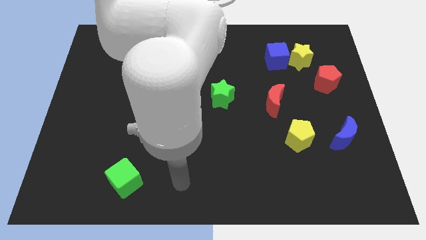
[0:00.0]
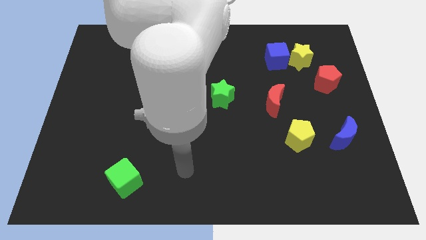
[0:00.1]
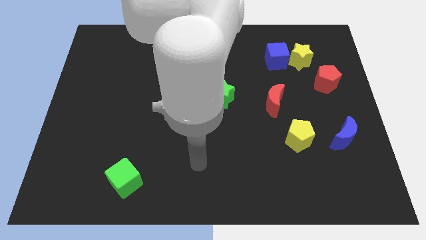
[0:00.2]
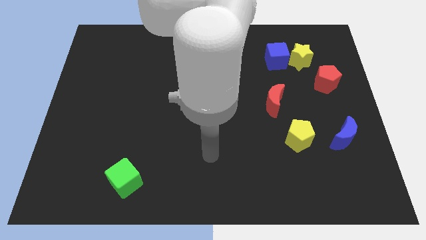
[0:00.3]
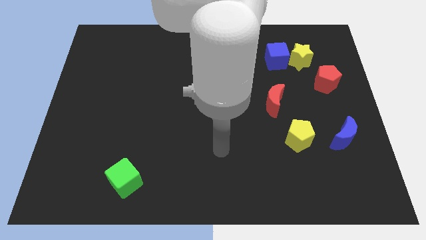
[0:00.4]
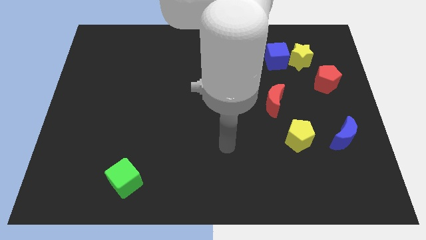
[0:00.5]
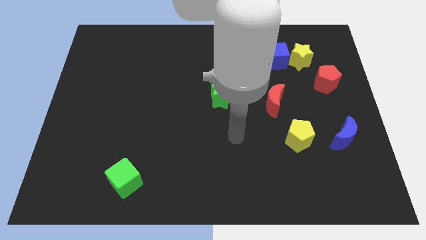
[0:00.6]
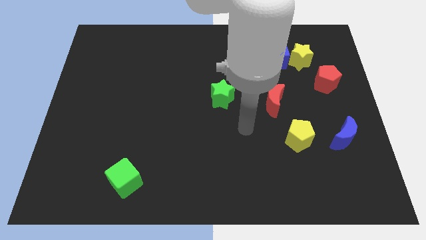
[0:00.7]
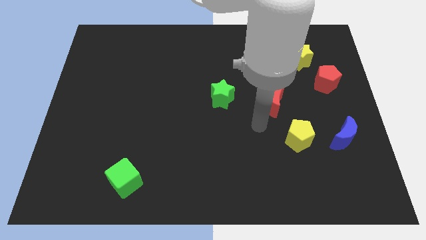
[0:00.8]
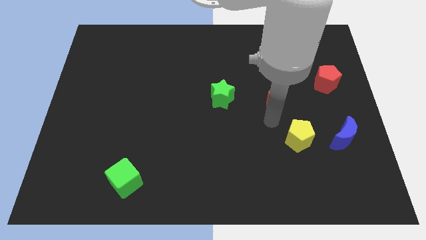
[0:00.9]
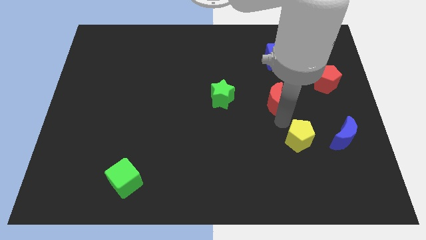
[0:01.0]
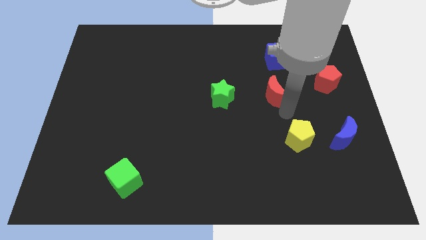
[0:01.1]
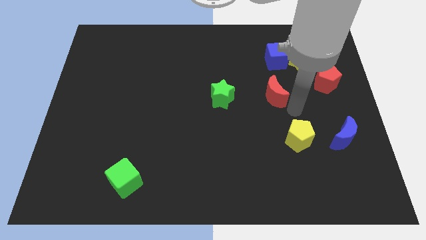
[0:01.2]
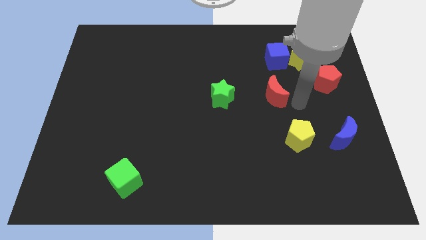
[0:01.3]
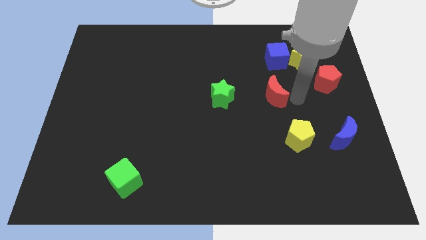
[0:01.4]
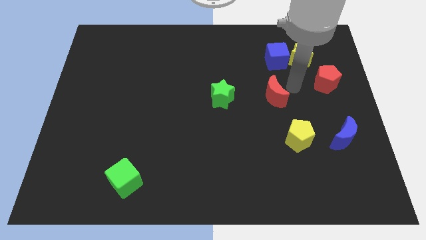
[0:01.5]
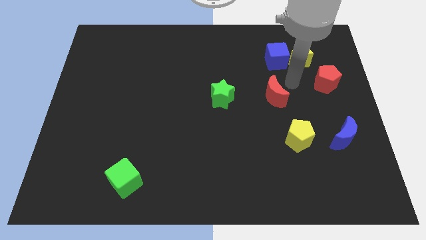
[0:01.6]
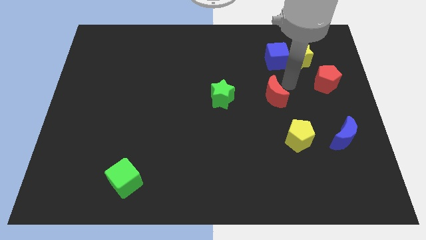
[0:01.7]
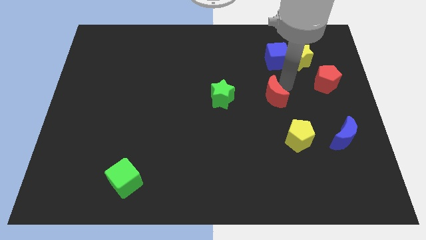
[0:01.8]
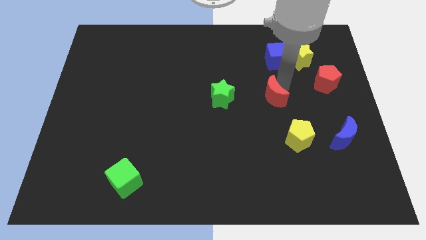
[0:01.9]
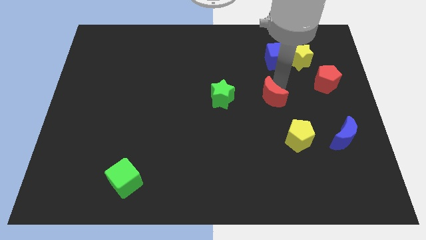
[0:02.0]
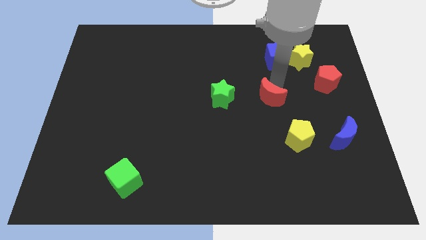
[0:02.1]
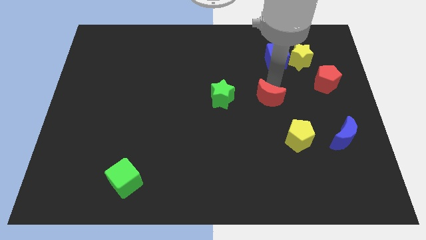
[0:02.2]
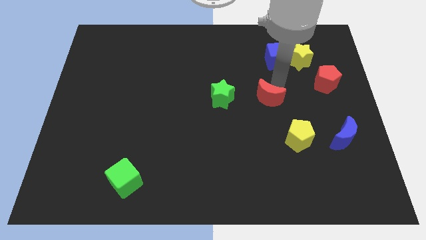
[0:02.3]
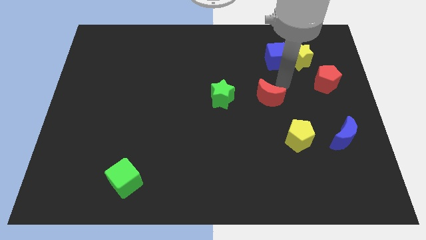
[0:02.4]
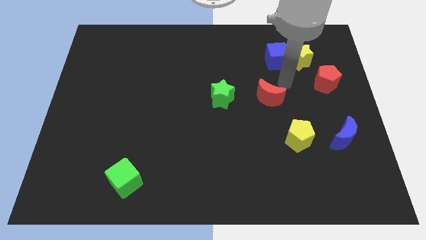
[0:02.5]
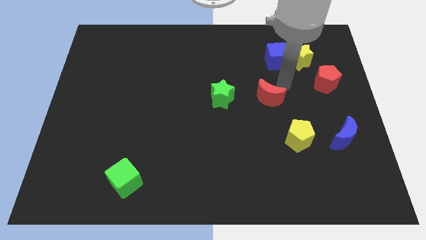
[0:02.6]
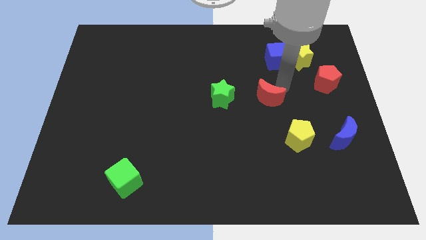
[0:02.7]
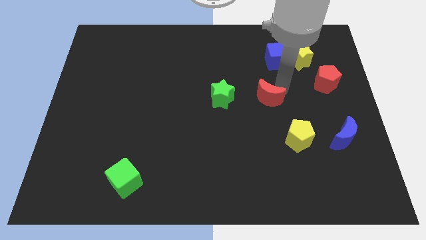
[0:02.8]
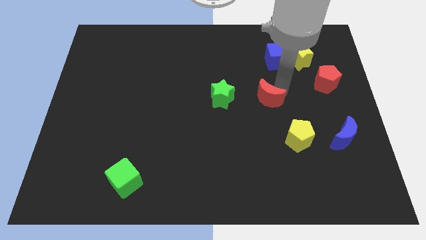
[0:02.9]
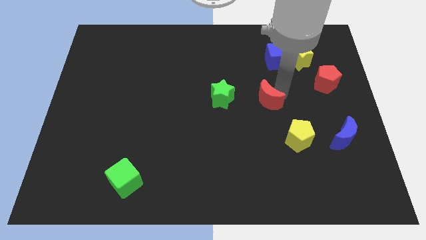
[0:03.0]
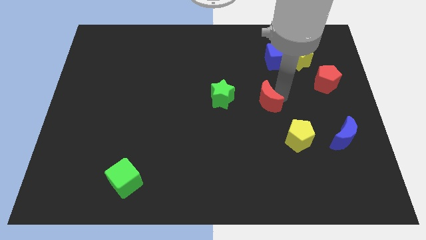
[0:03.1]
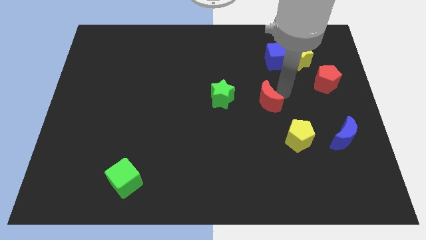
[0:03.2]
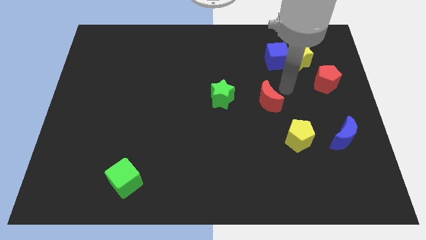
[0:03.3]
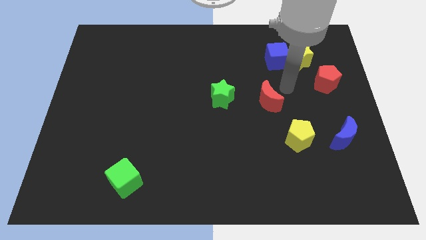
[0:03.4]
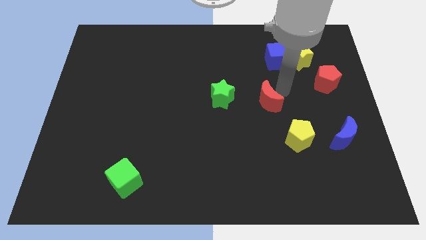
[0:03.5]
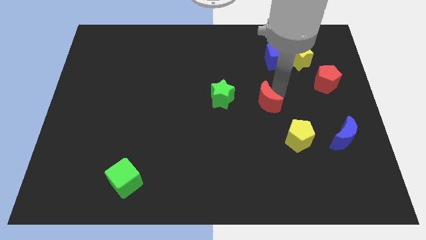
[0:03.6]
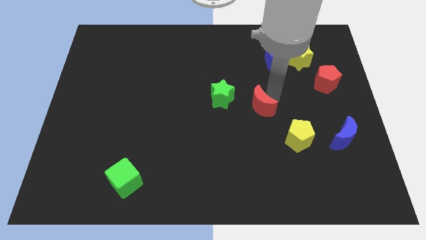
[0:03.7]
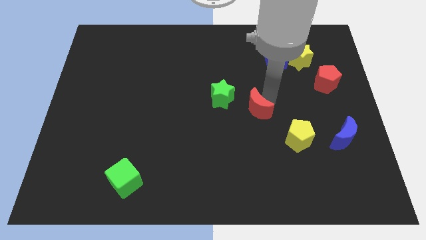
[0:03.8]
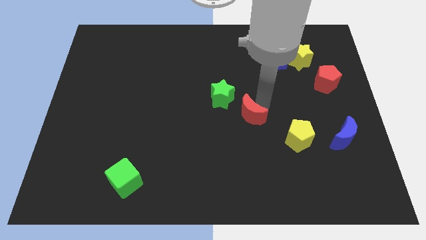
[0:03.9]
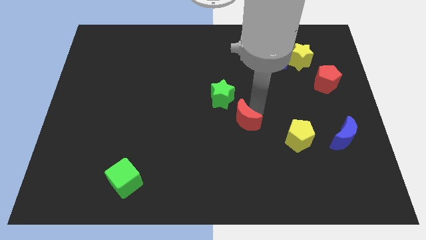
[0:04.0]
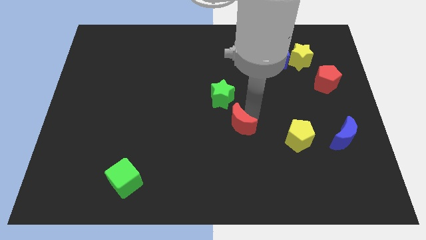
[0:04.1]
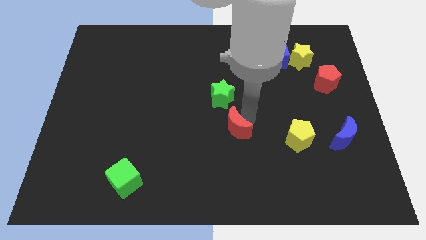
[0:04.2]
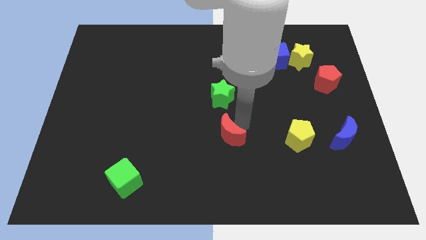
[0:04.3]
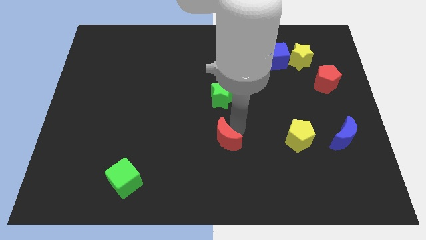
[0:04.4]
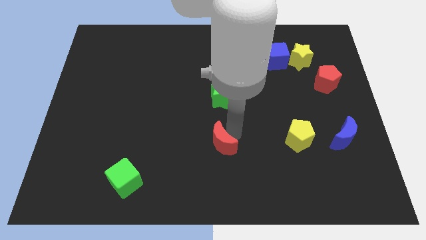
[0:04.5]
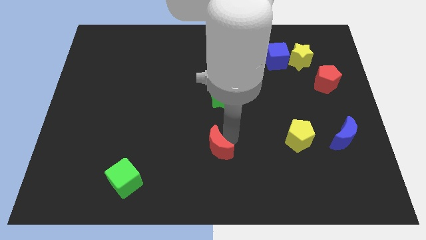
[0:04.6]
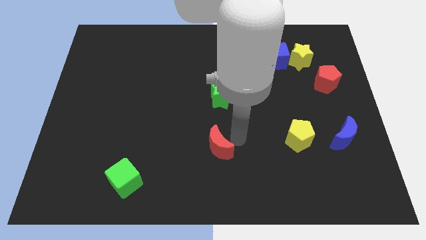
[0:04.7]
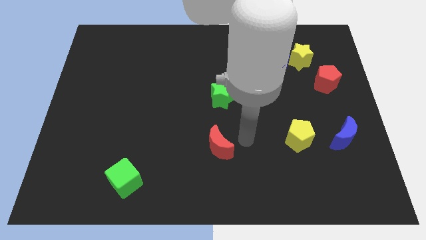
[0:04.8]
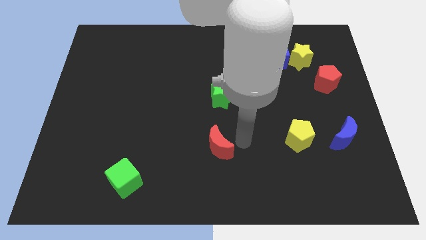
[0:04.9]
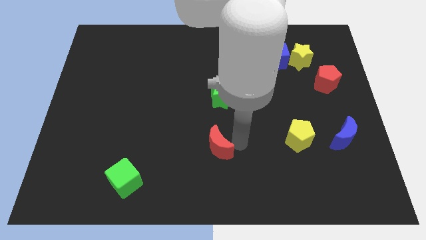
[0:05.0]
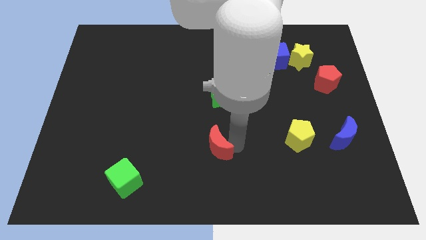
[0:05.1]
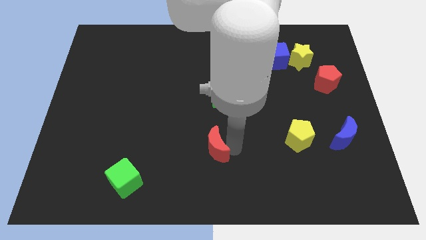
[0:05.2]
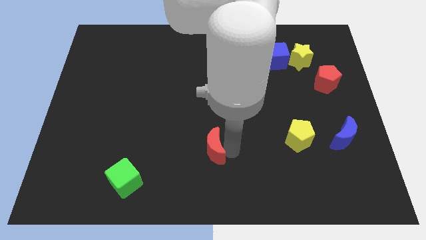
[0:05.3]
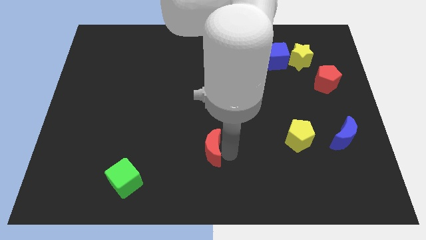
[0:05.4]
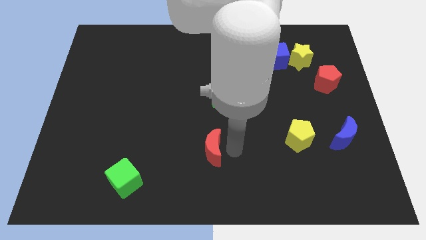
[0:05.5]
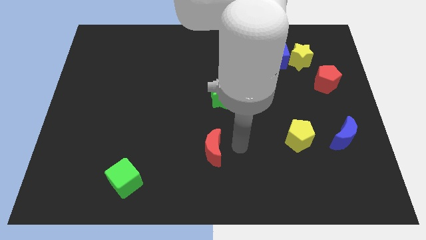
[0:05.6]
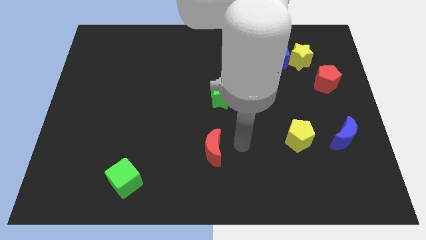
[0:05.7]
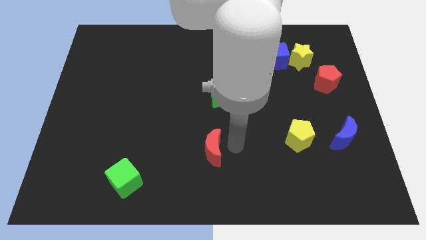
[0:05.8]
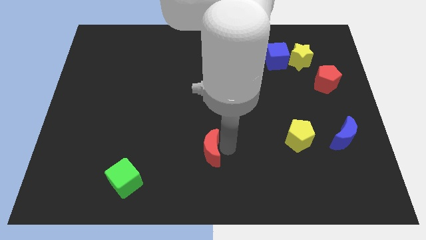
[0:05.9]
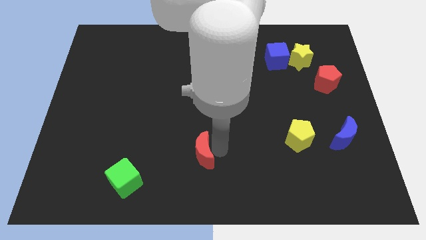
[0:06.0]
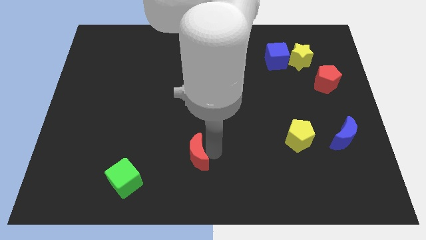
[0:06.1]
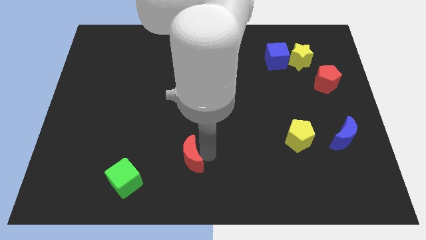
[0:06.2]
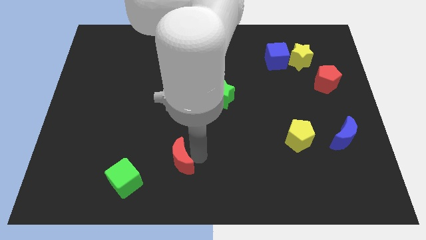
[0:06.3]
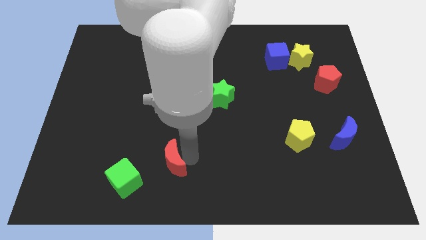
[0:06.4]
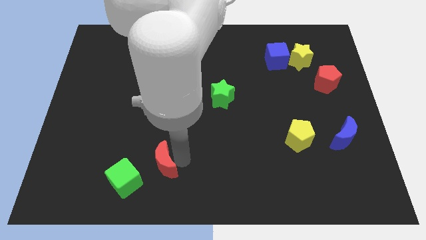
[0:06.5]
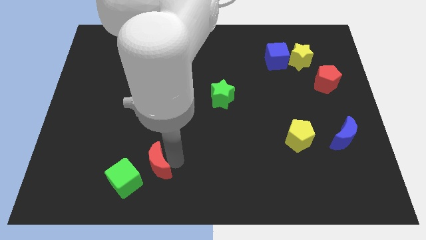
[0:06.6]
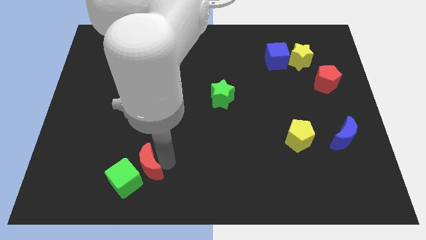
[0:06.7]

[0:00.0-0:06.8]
slide the red moon towards the green cube

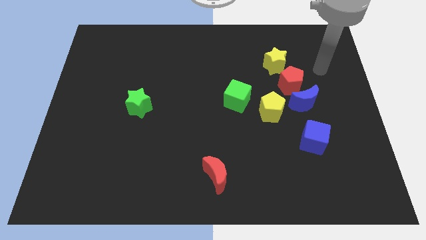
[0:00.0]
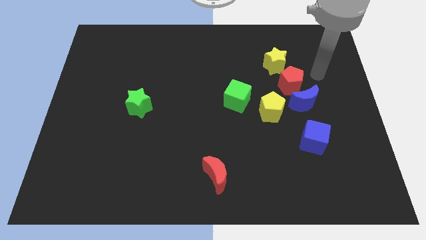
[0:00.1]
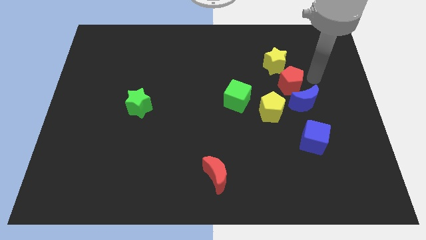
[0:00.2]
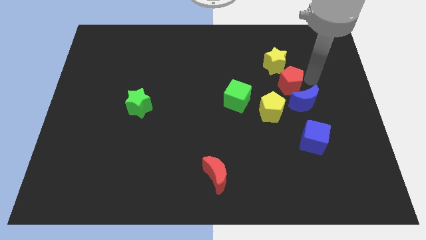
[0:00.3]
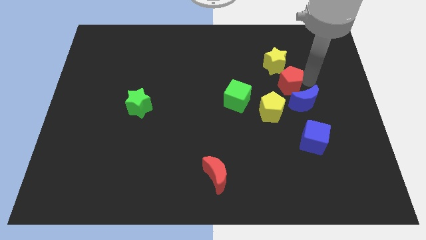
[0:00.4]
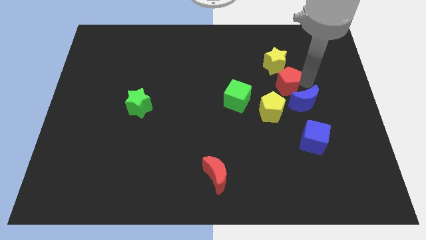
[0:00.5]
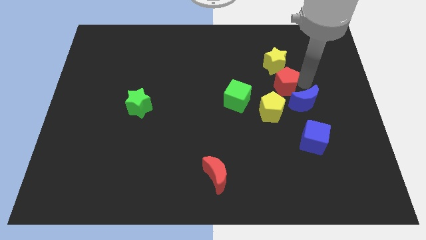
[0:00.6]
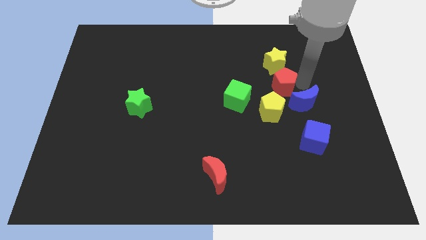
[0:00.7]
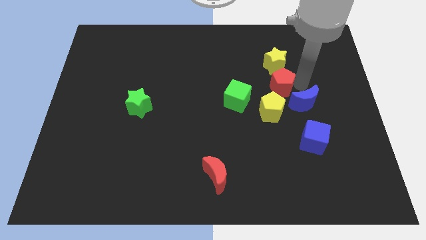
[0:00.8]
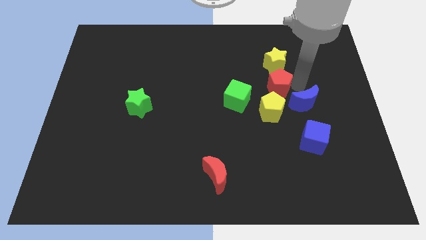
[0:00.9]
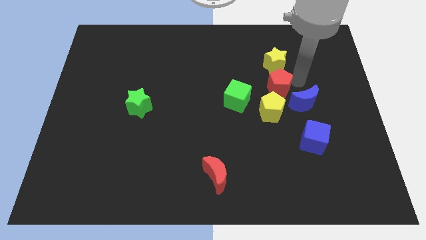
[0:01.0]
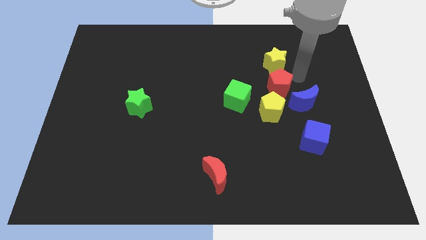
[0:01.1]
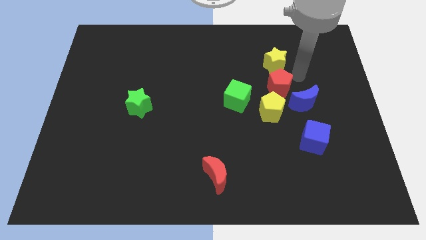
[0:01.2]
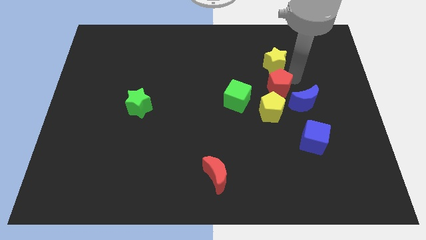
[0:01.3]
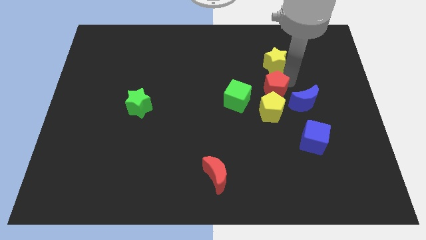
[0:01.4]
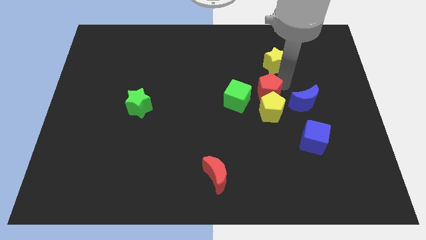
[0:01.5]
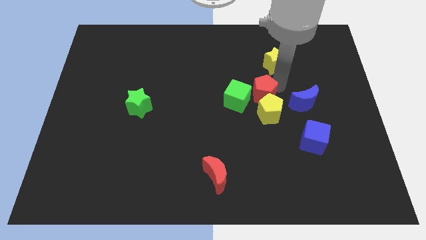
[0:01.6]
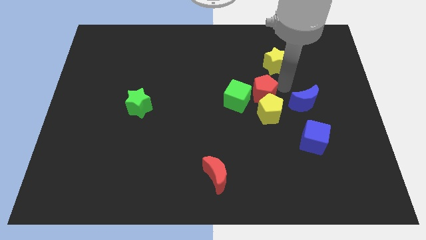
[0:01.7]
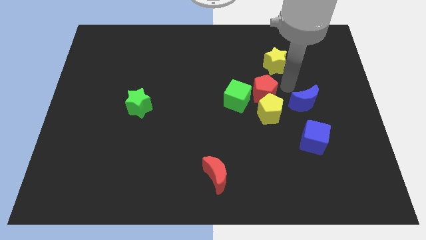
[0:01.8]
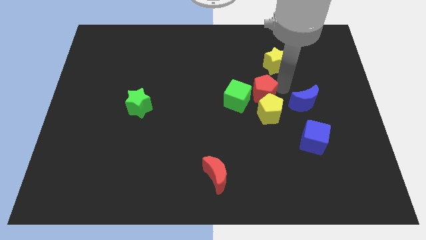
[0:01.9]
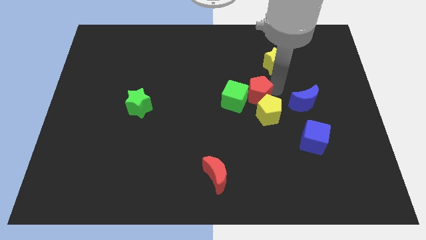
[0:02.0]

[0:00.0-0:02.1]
push the red pentagon to the green cube
